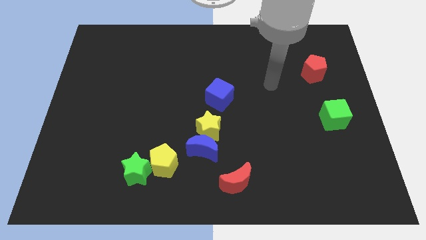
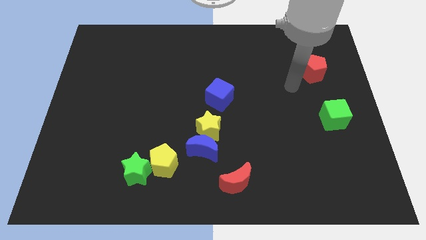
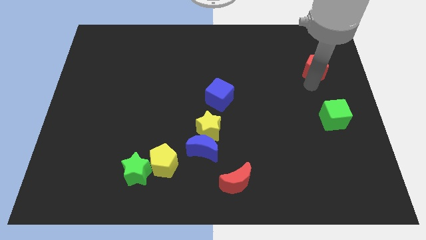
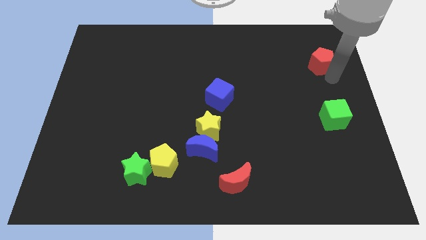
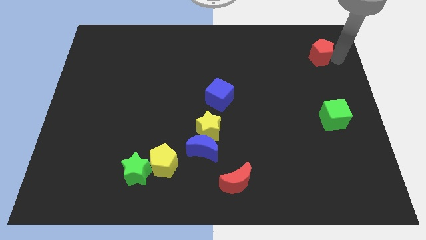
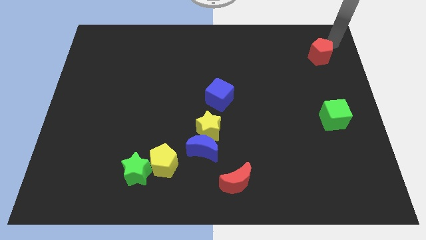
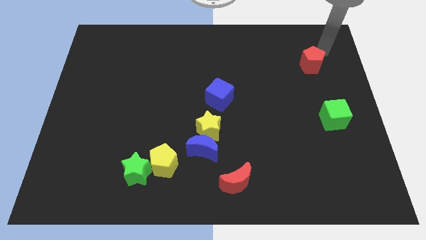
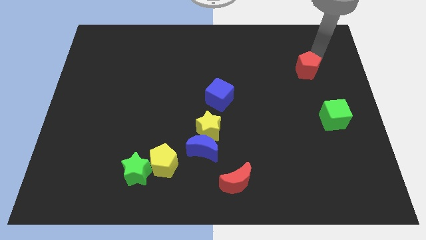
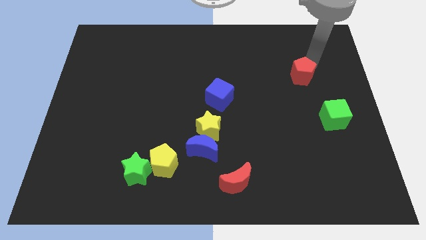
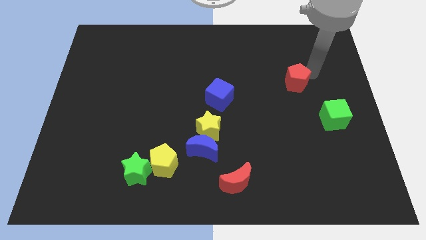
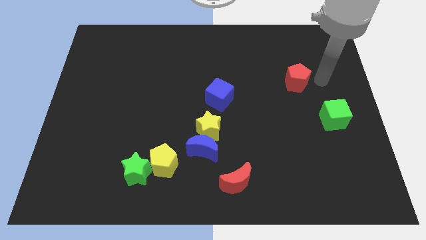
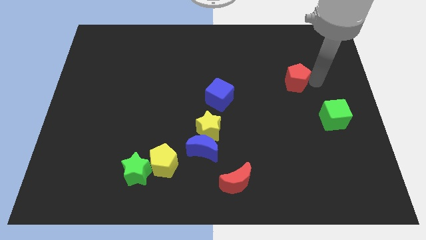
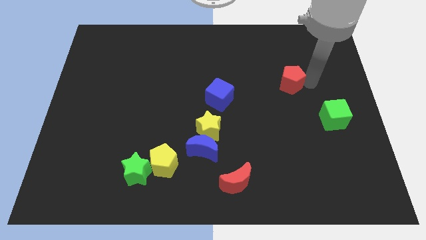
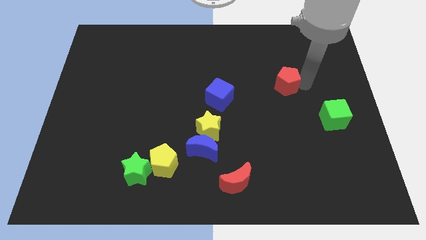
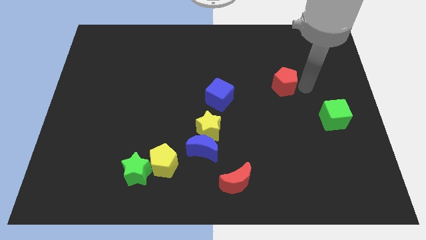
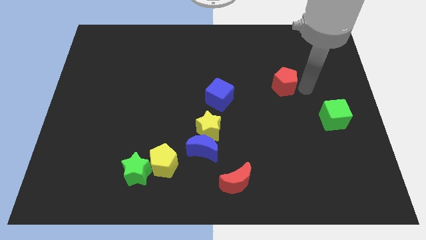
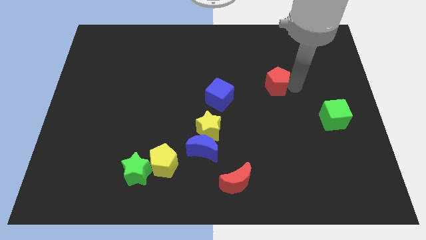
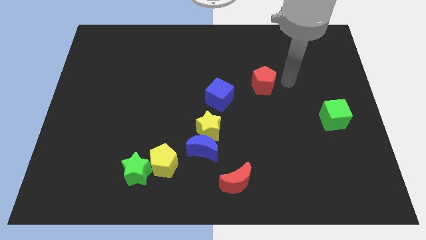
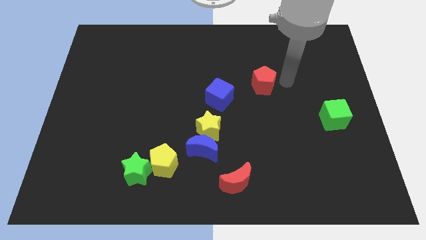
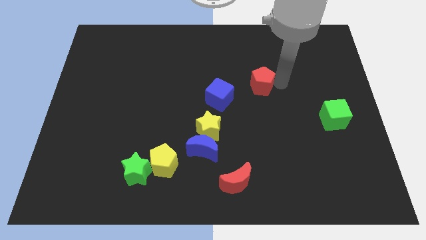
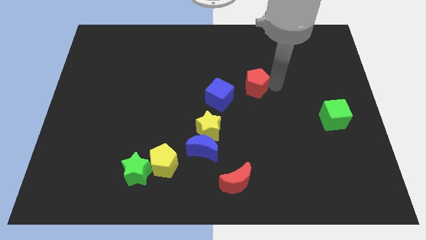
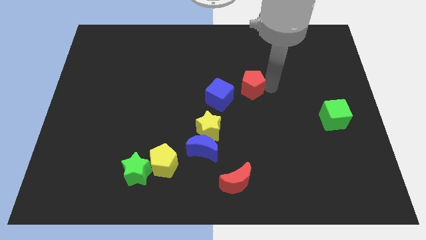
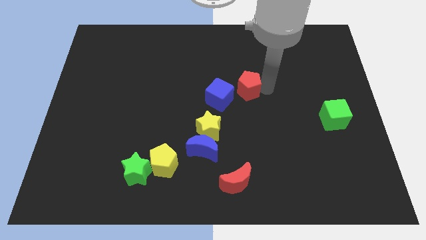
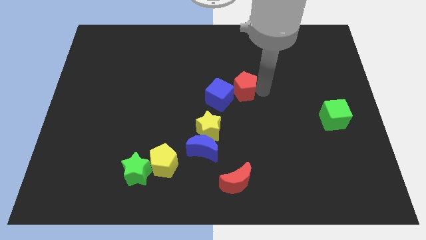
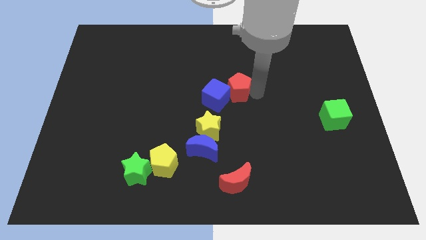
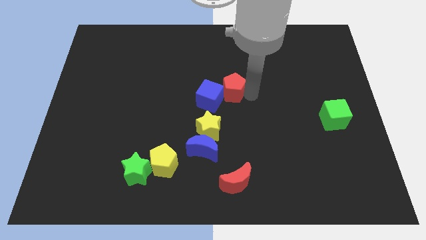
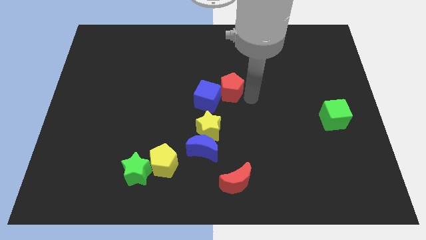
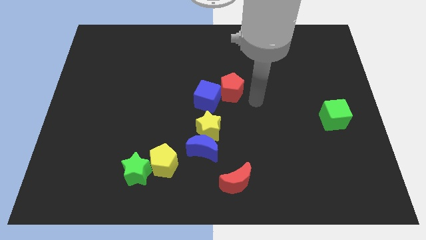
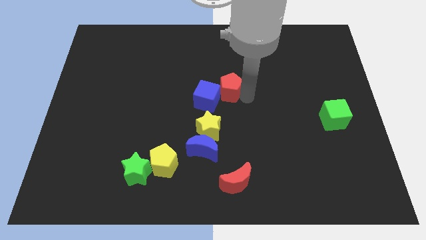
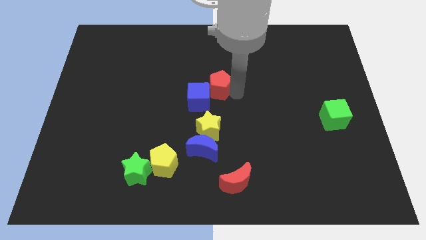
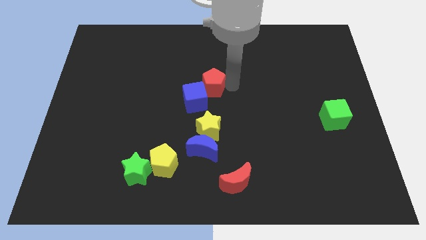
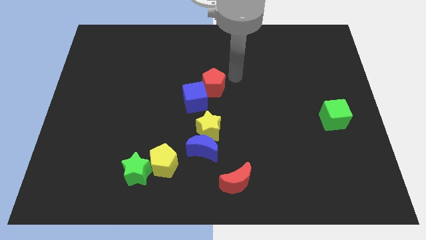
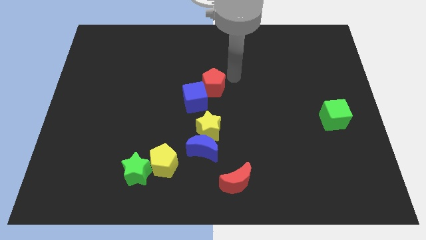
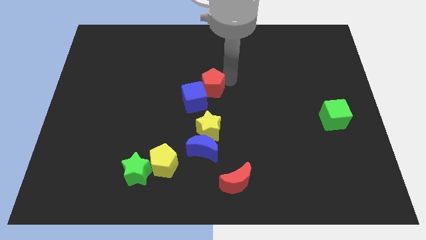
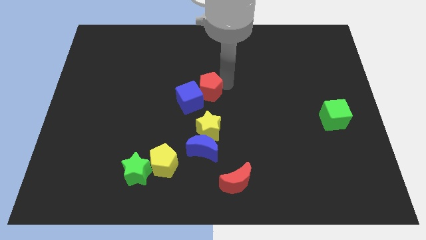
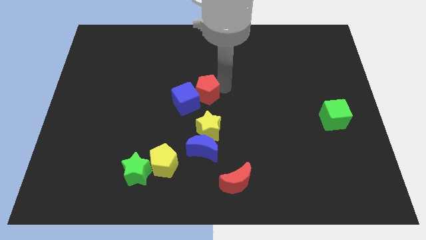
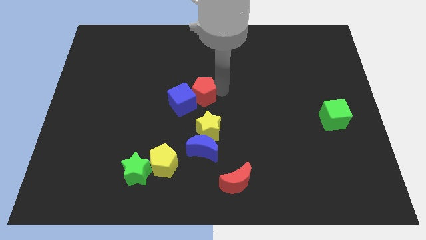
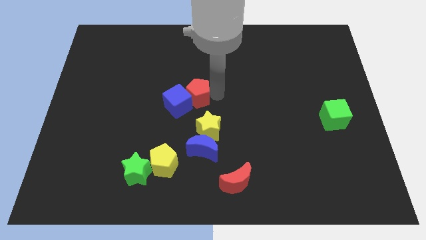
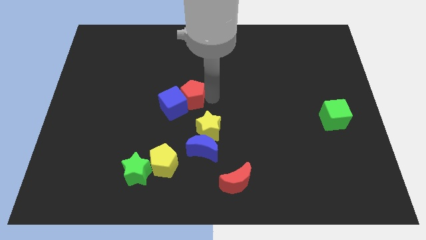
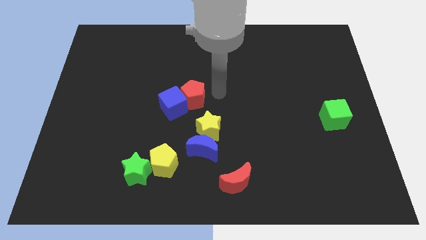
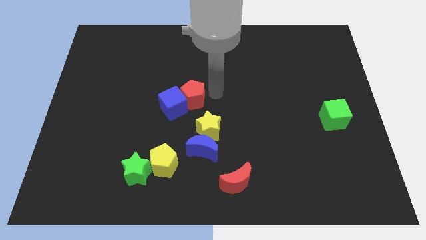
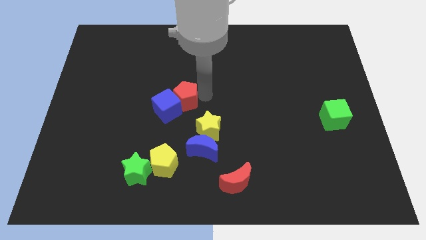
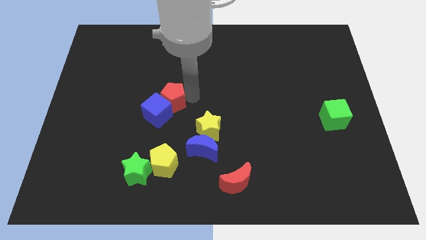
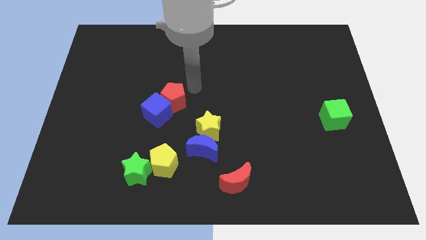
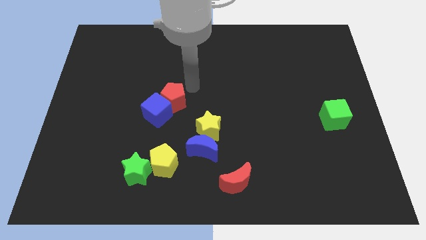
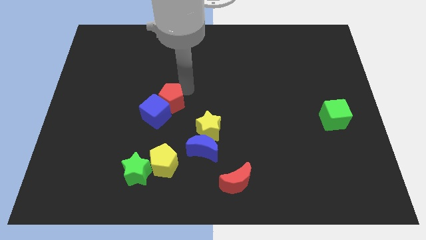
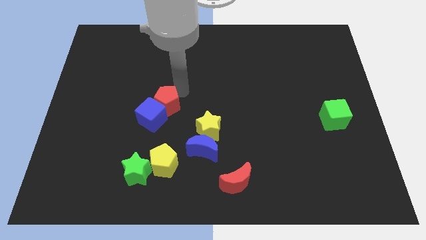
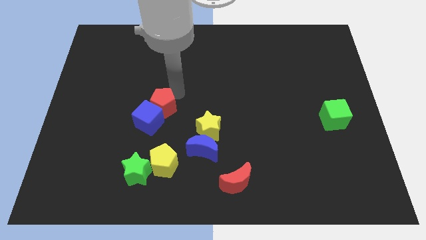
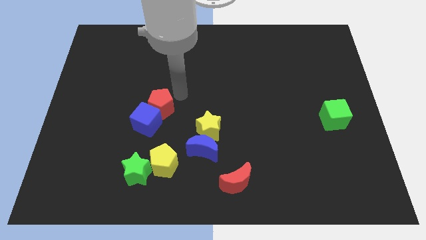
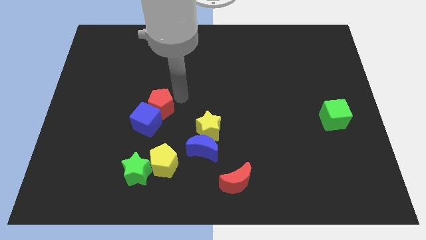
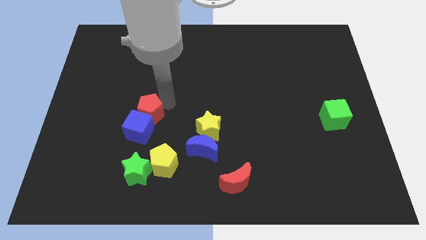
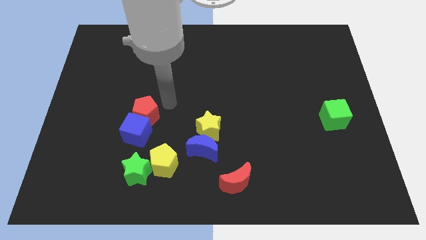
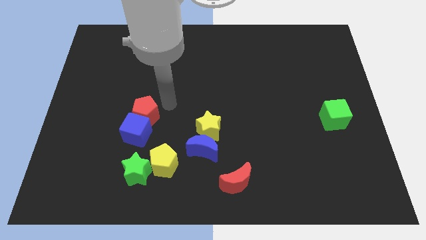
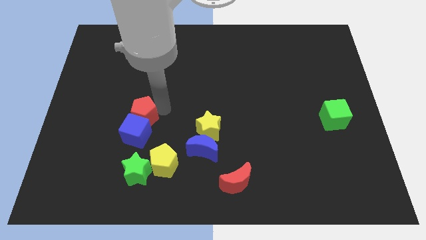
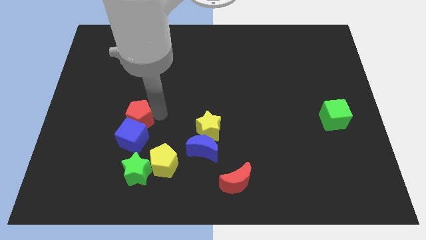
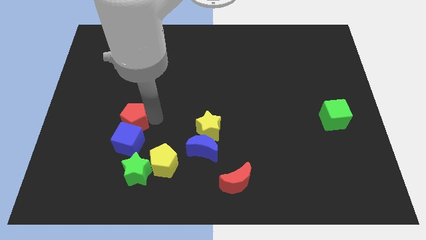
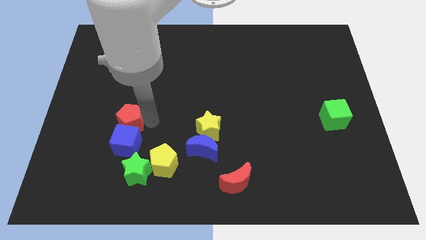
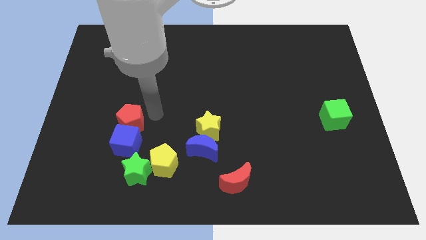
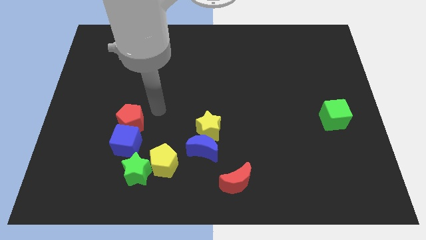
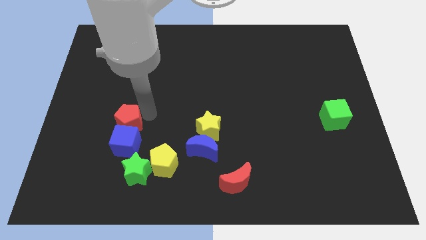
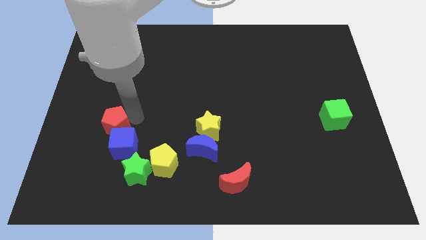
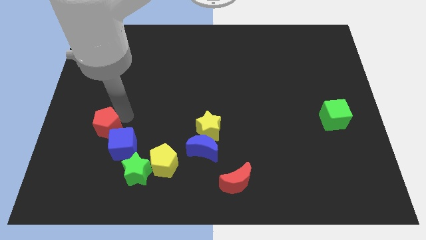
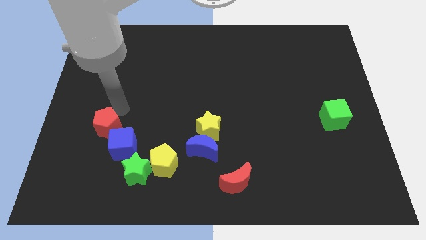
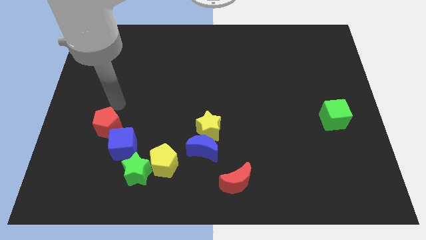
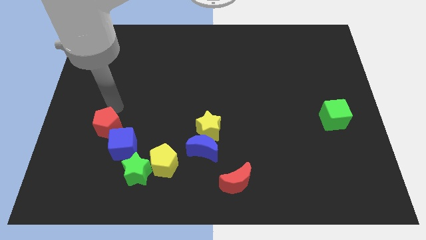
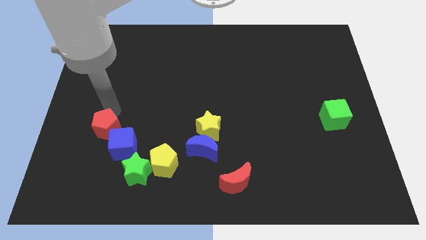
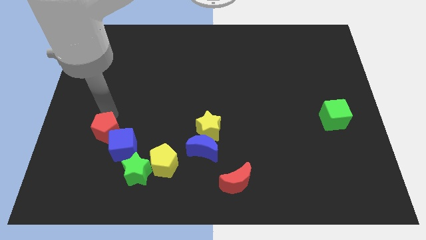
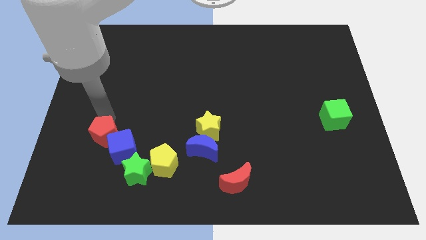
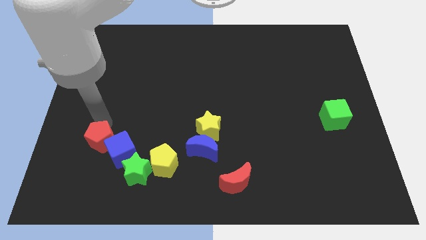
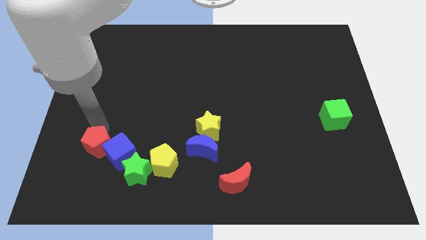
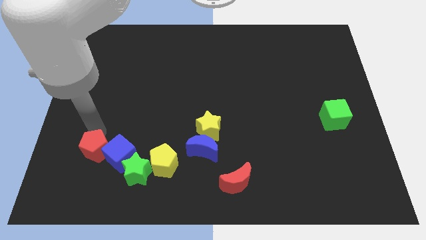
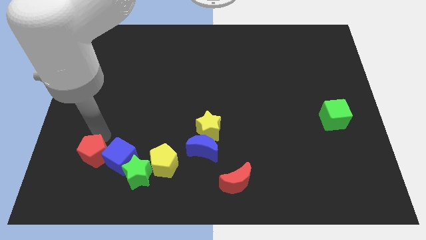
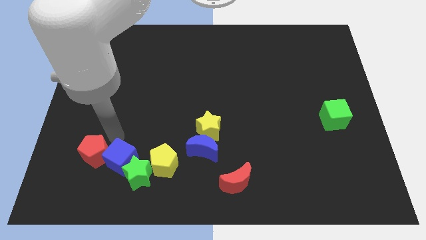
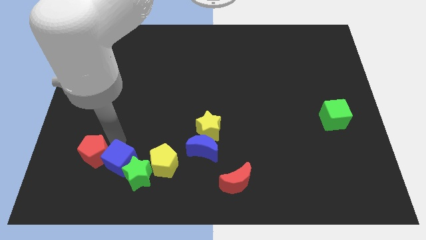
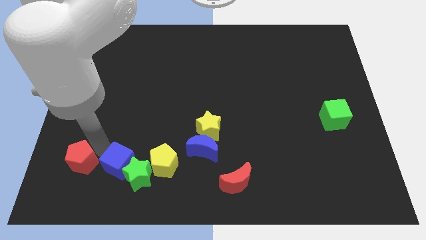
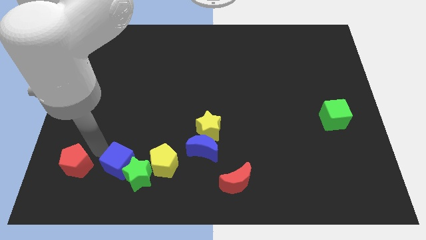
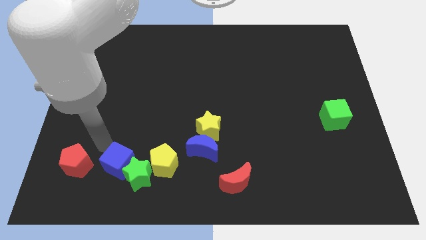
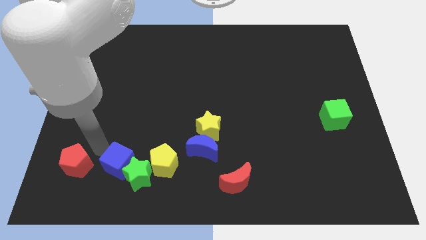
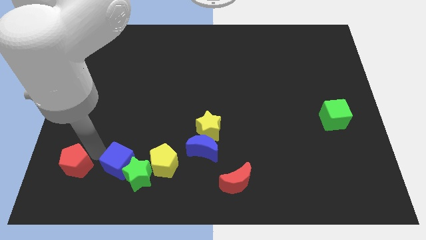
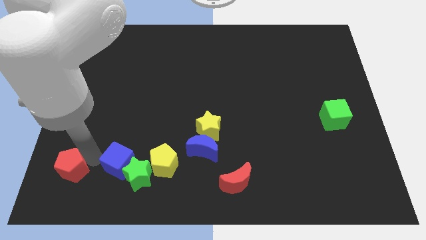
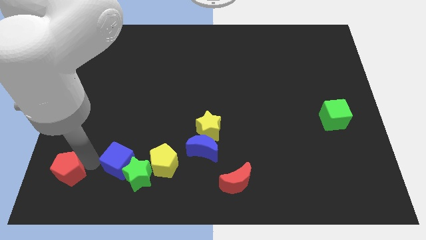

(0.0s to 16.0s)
push the red pentagon to the bottom left
